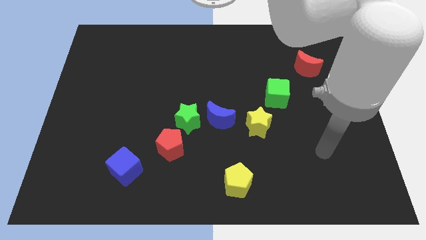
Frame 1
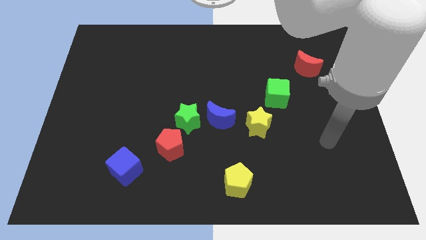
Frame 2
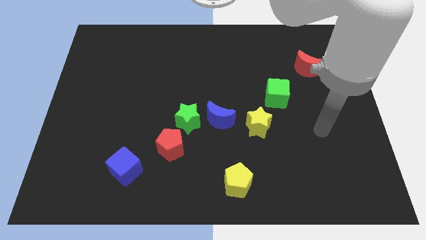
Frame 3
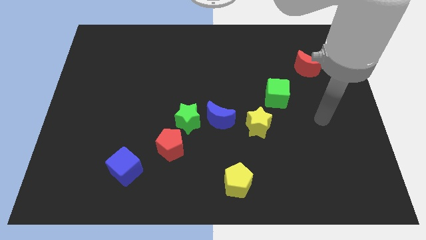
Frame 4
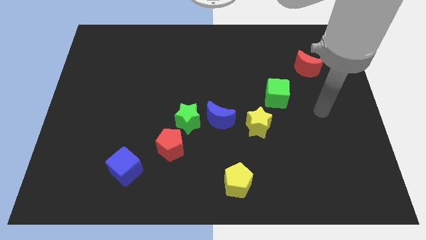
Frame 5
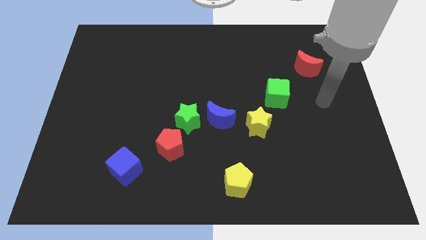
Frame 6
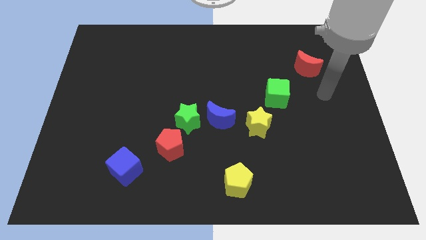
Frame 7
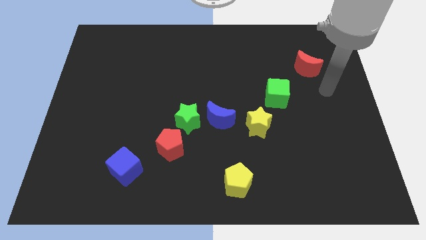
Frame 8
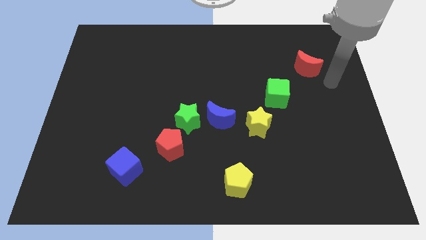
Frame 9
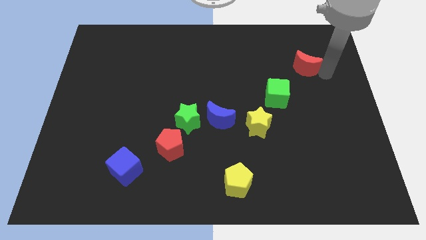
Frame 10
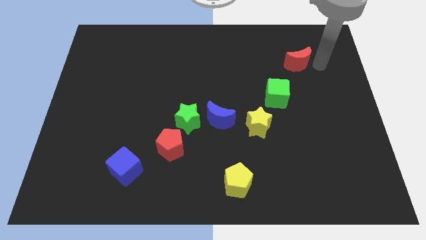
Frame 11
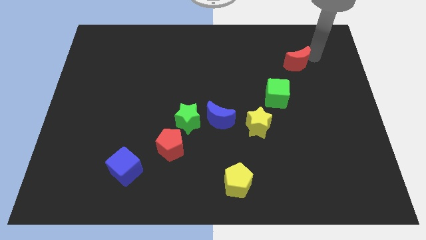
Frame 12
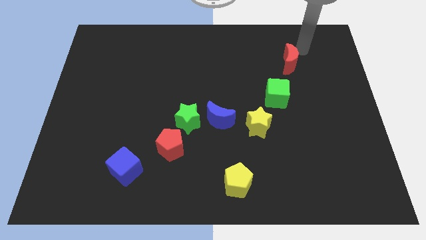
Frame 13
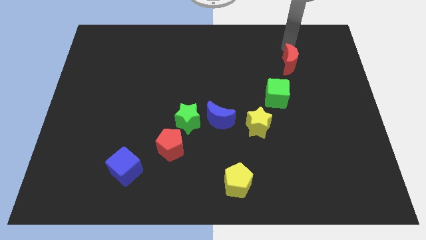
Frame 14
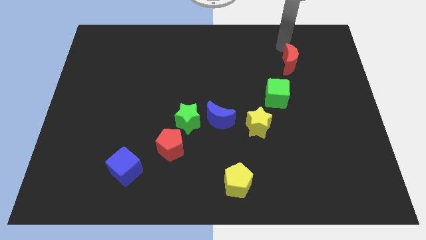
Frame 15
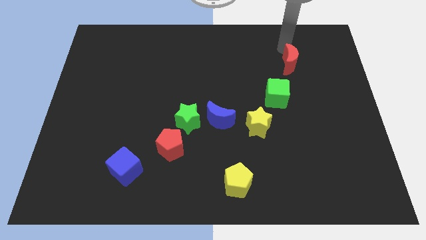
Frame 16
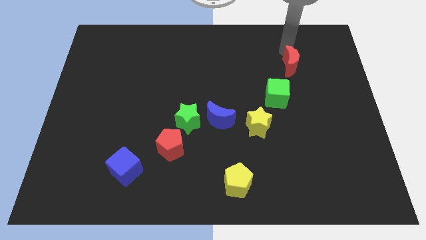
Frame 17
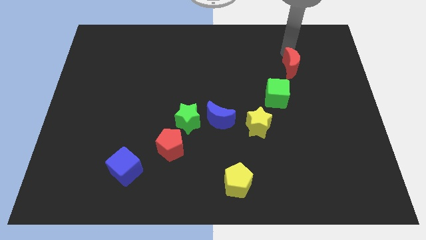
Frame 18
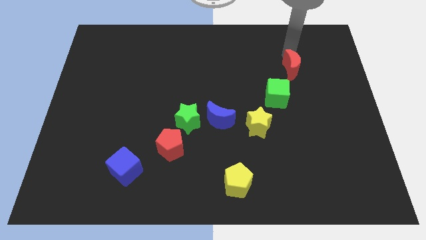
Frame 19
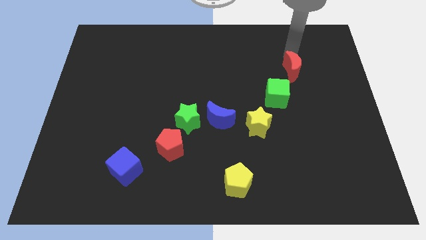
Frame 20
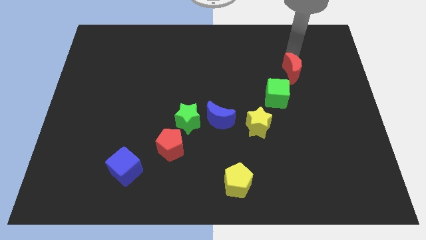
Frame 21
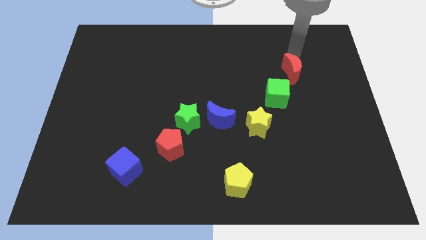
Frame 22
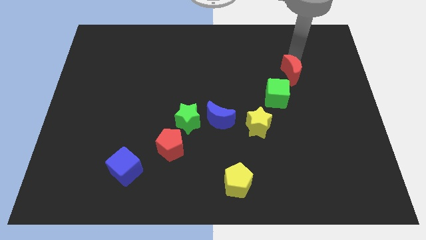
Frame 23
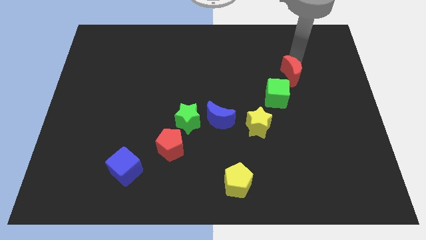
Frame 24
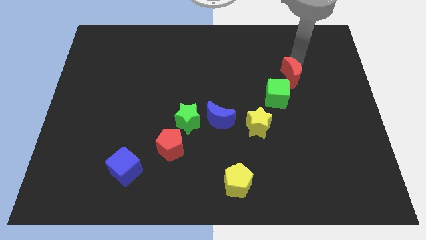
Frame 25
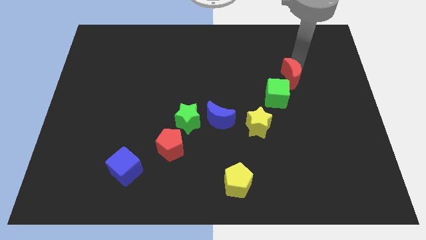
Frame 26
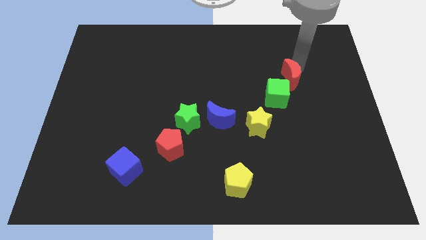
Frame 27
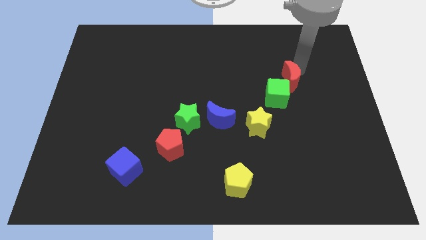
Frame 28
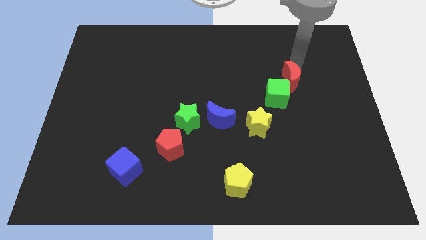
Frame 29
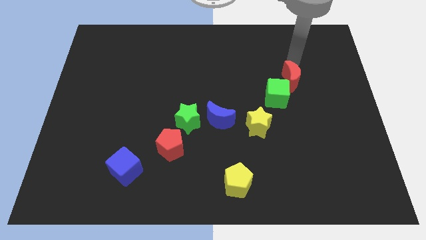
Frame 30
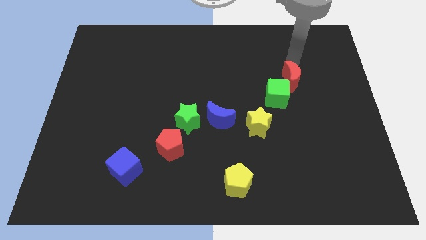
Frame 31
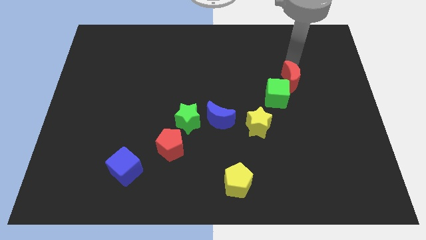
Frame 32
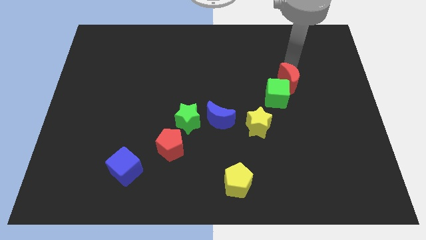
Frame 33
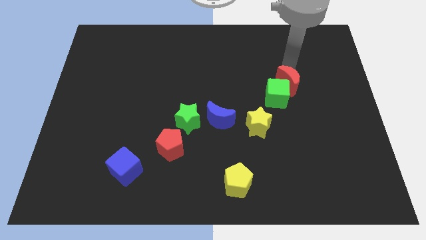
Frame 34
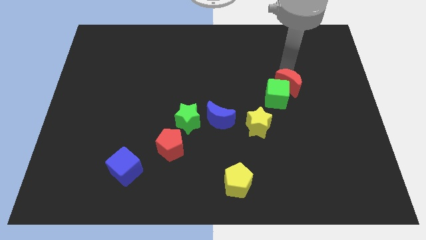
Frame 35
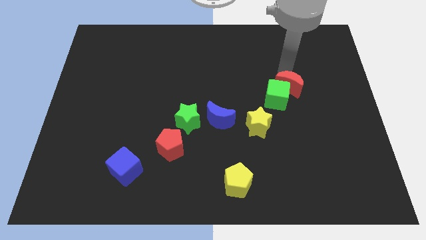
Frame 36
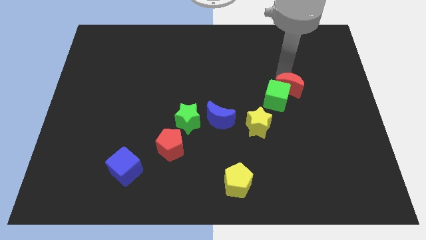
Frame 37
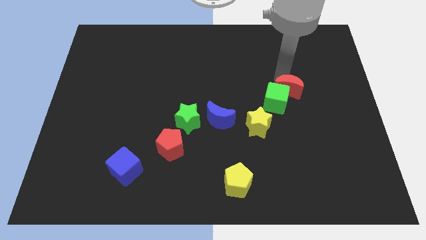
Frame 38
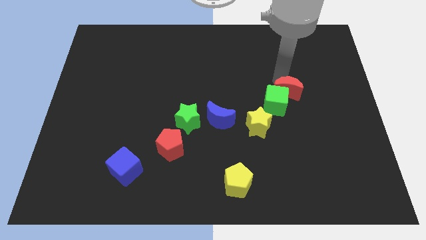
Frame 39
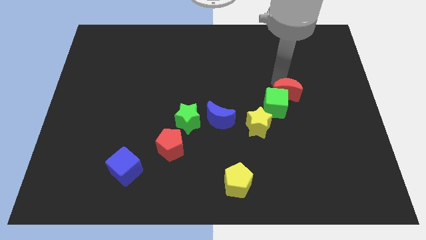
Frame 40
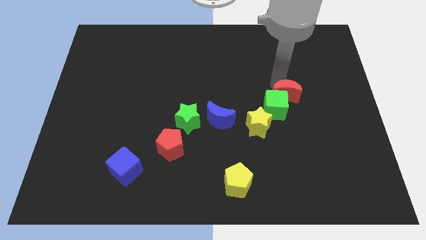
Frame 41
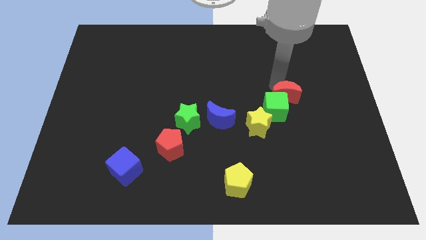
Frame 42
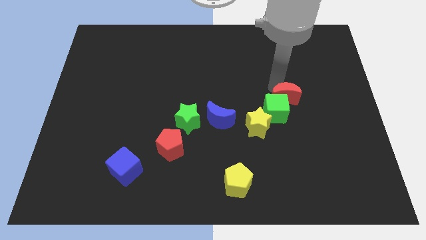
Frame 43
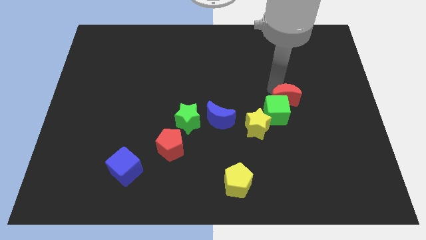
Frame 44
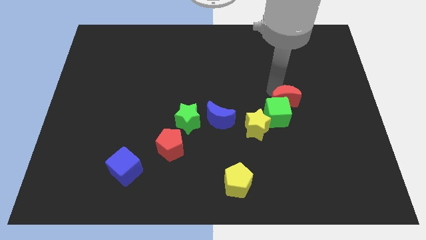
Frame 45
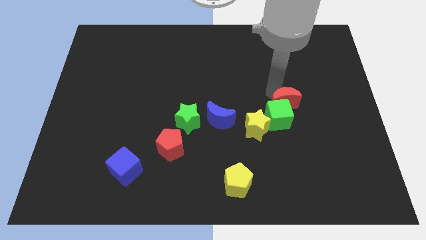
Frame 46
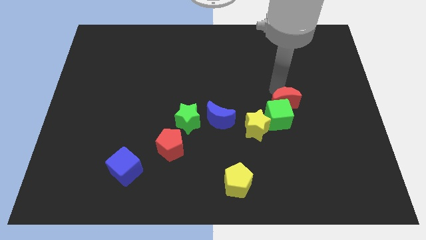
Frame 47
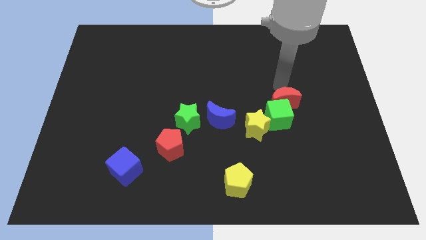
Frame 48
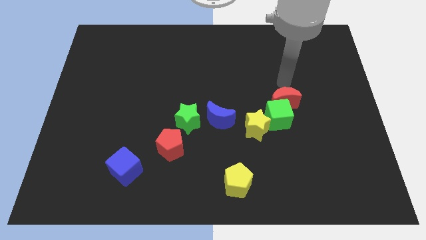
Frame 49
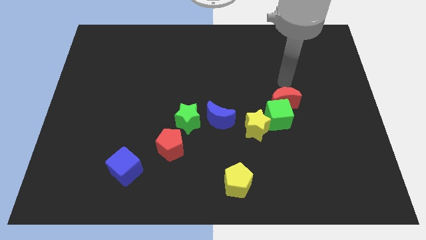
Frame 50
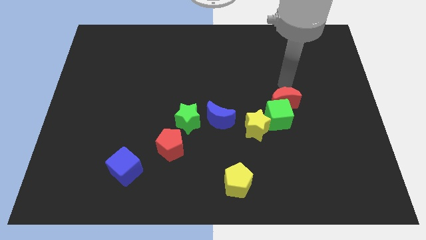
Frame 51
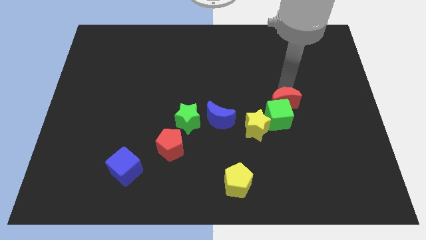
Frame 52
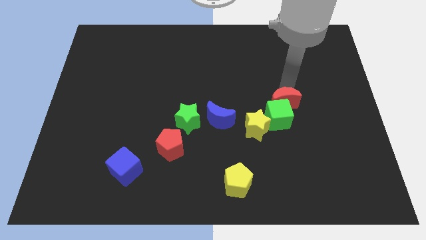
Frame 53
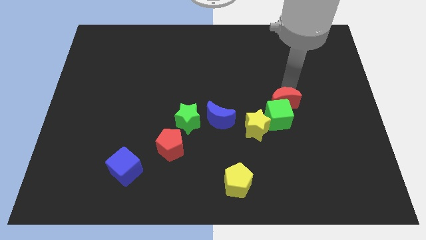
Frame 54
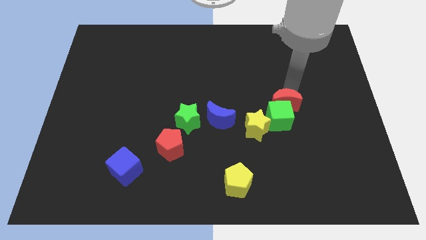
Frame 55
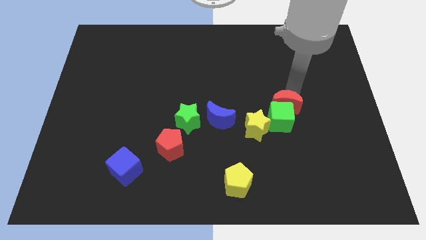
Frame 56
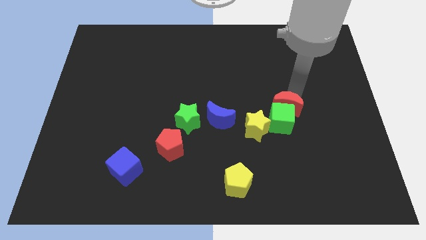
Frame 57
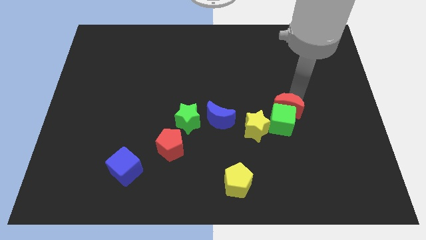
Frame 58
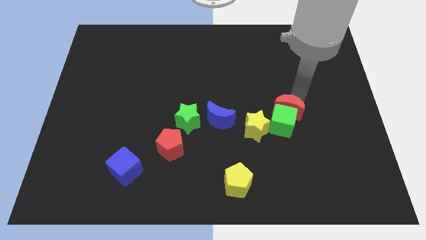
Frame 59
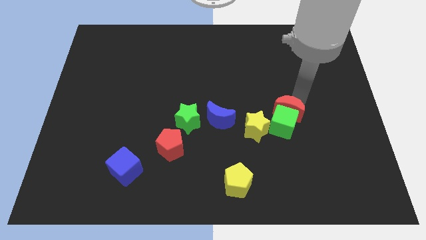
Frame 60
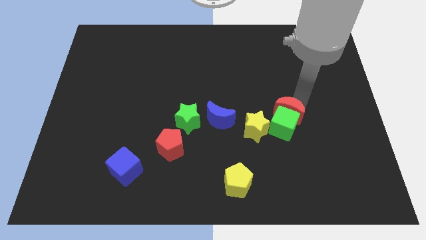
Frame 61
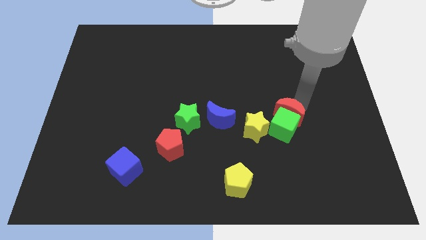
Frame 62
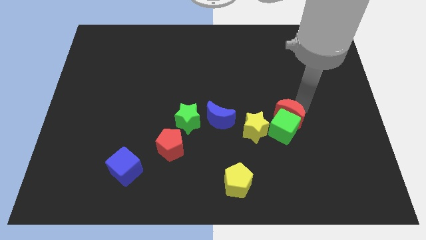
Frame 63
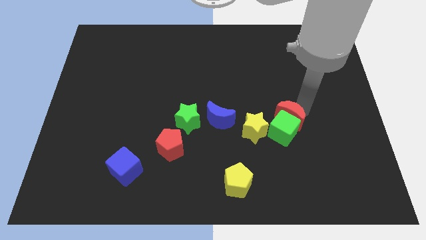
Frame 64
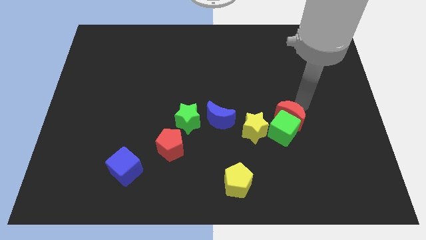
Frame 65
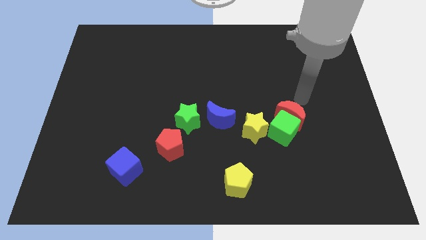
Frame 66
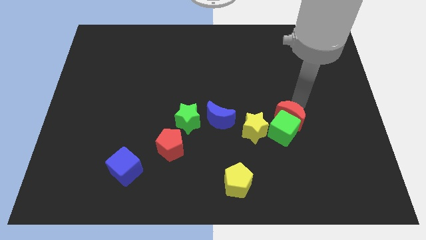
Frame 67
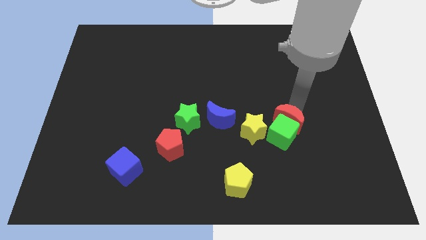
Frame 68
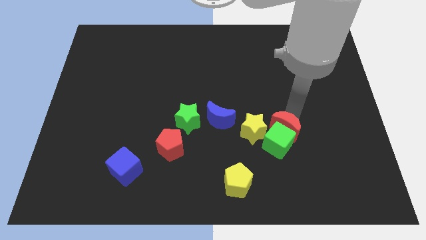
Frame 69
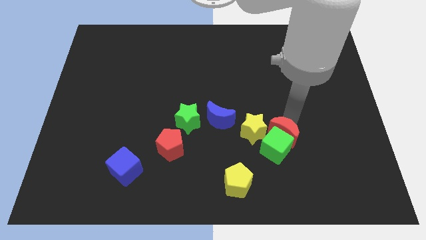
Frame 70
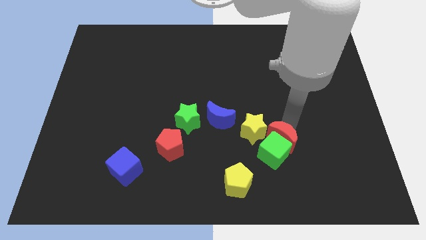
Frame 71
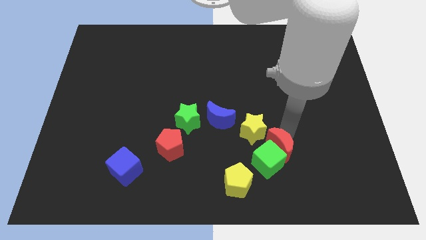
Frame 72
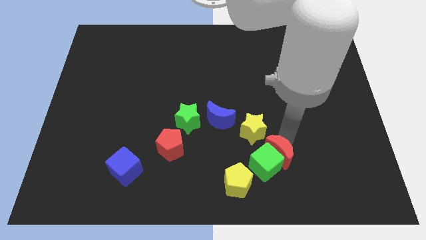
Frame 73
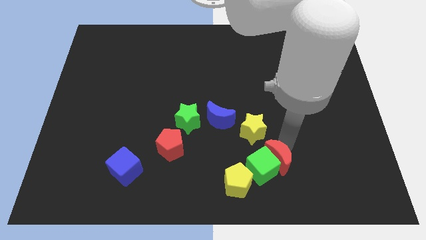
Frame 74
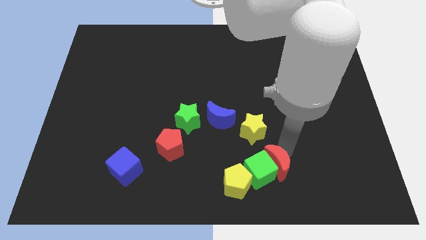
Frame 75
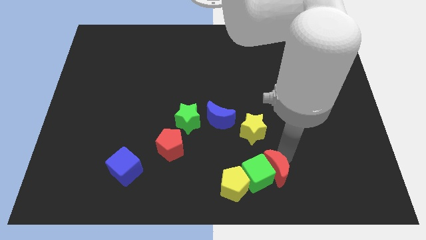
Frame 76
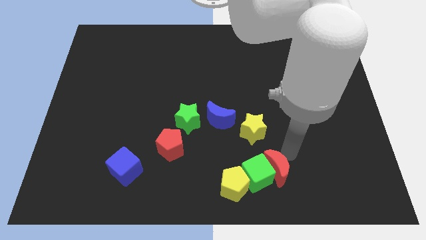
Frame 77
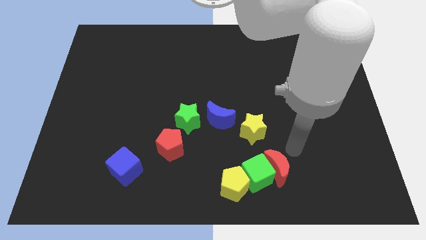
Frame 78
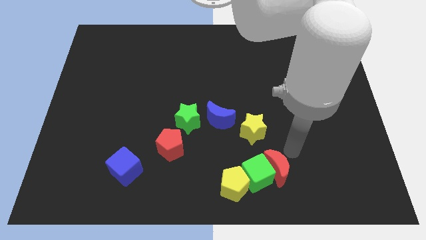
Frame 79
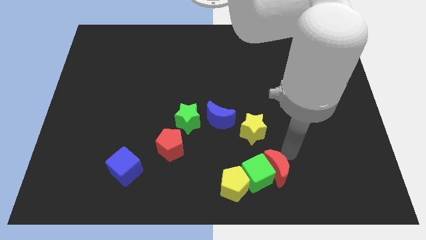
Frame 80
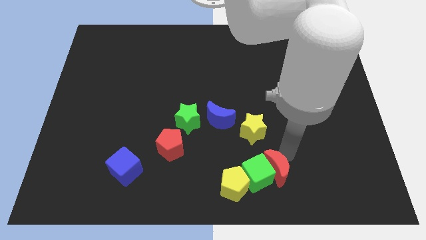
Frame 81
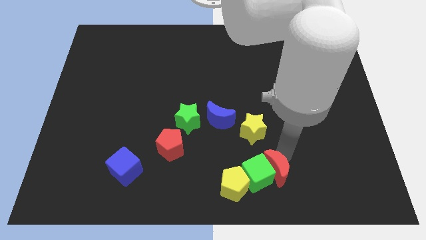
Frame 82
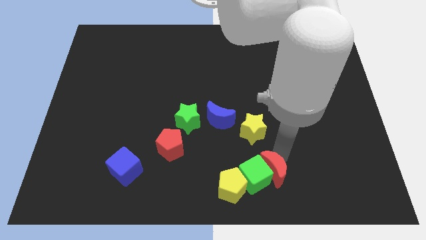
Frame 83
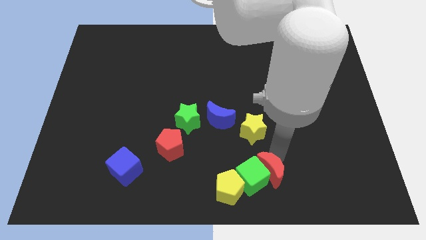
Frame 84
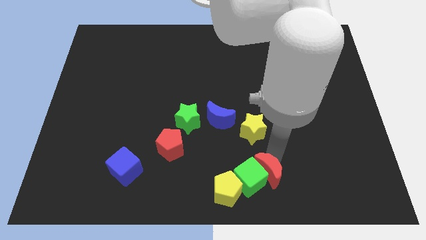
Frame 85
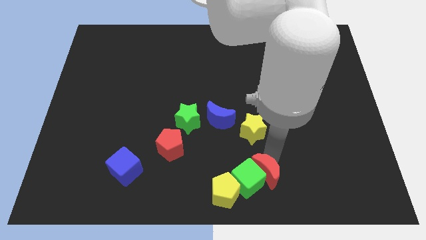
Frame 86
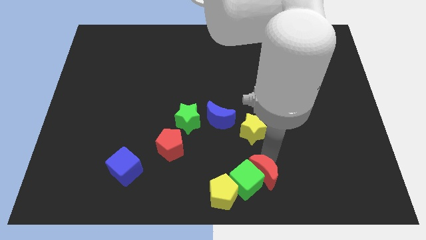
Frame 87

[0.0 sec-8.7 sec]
put the red moon to the bottom side
